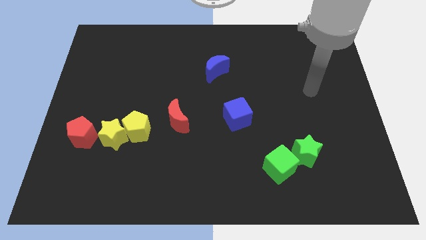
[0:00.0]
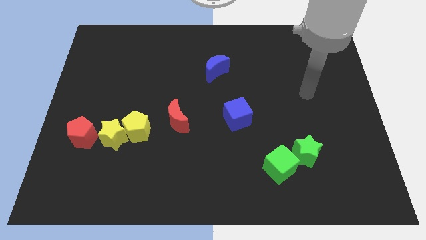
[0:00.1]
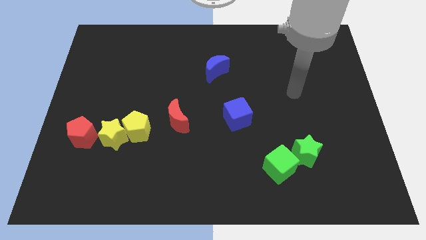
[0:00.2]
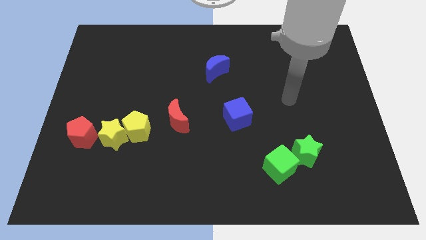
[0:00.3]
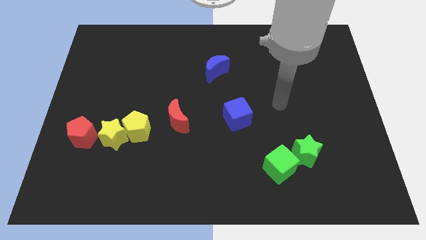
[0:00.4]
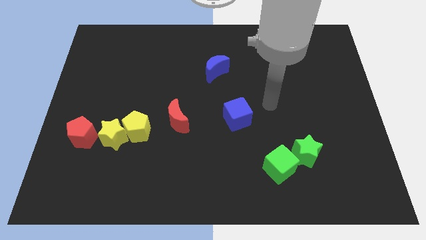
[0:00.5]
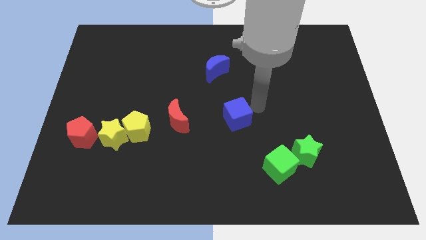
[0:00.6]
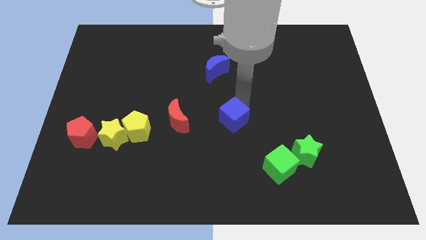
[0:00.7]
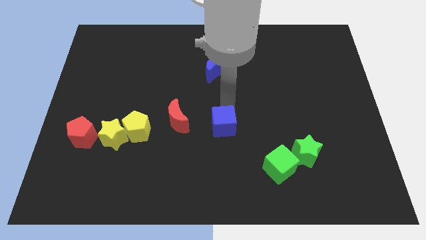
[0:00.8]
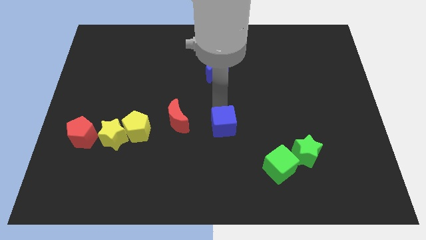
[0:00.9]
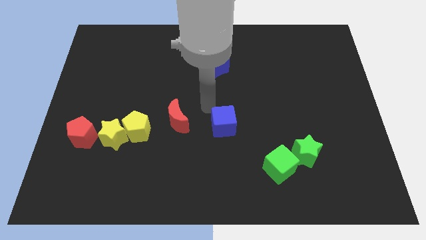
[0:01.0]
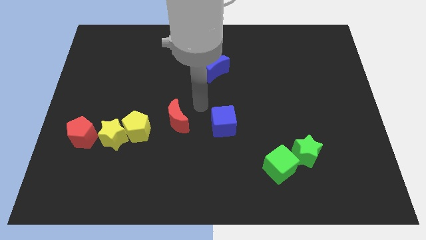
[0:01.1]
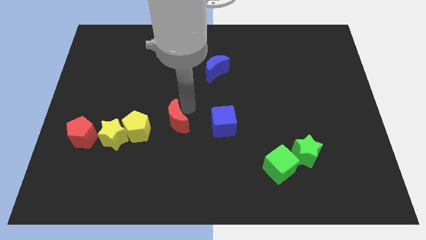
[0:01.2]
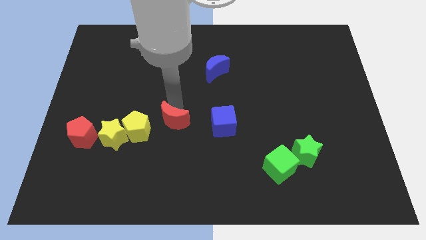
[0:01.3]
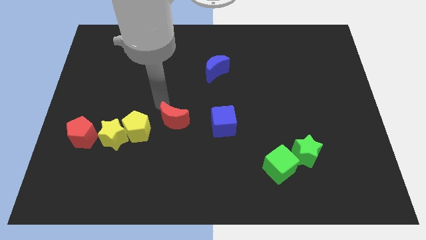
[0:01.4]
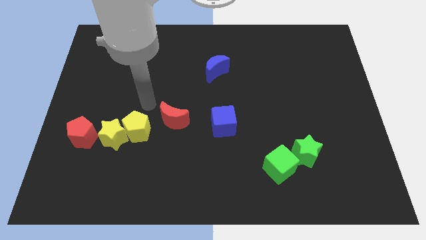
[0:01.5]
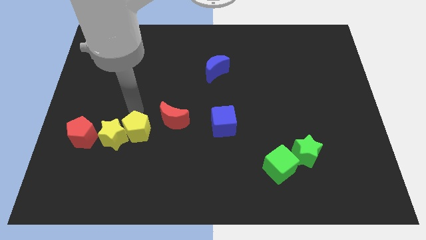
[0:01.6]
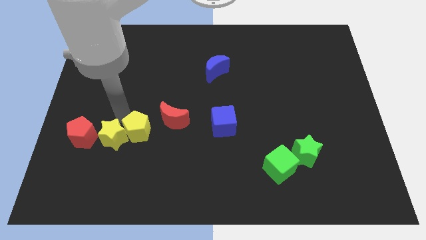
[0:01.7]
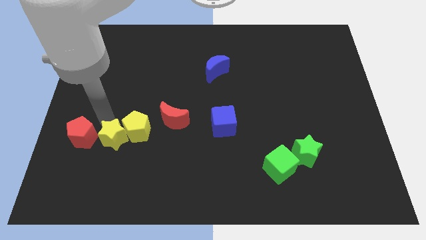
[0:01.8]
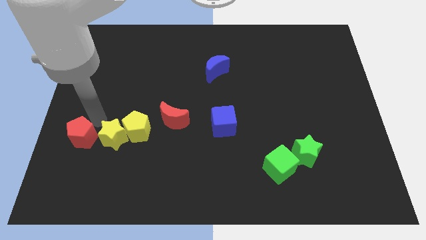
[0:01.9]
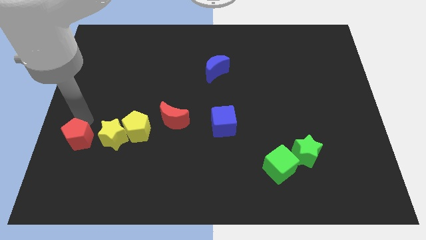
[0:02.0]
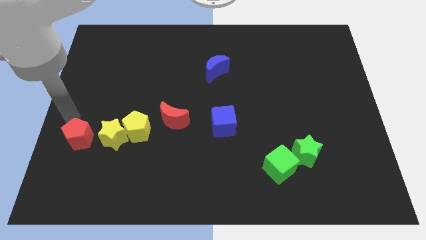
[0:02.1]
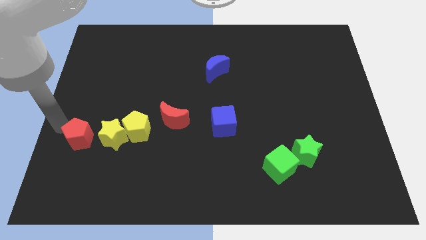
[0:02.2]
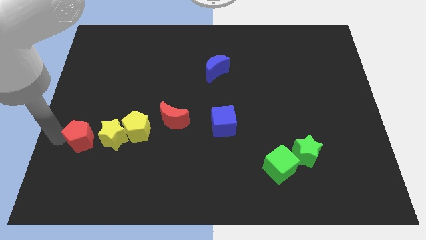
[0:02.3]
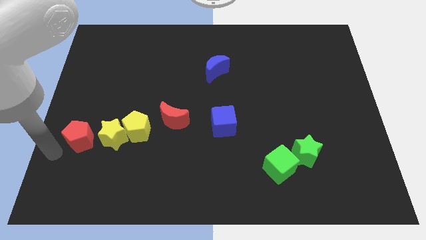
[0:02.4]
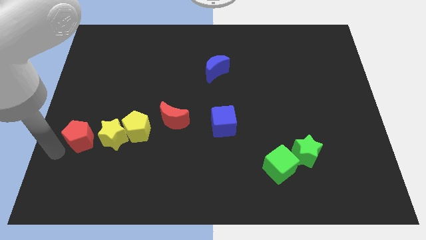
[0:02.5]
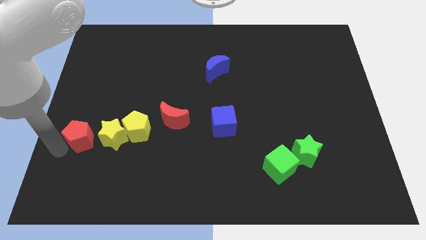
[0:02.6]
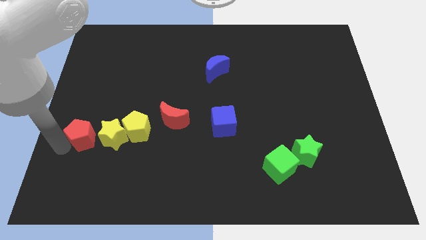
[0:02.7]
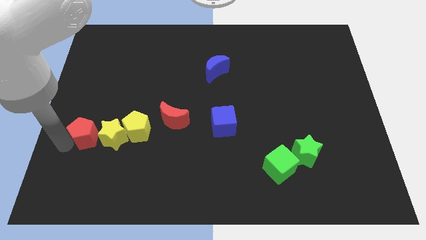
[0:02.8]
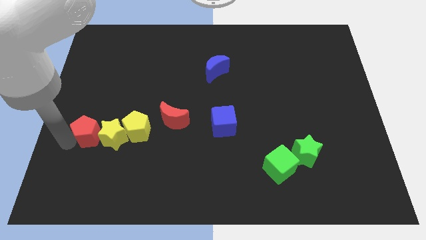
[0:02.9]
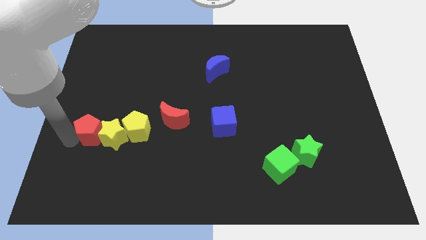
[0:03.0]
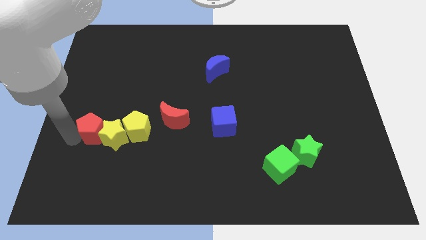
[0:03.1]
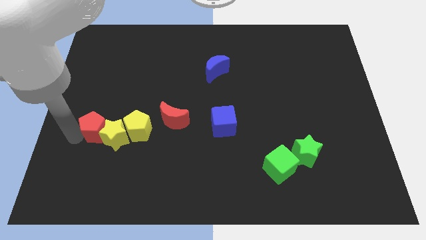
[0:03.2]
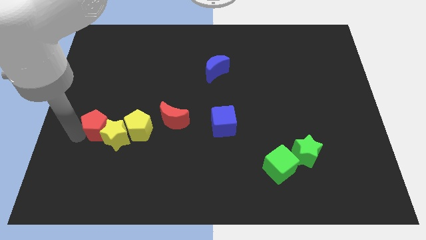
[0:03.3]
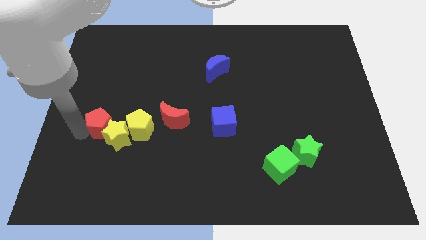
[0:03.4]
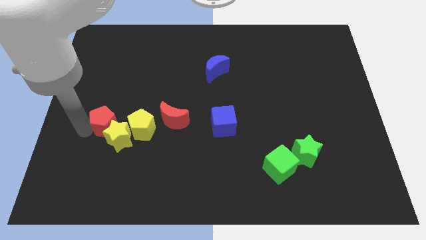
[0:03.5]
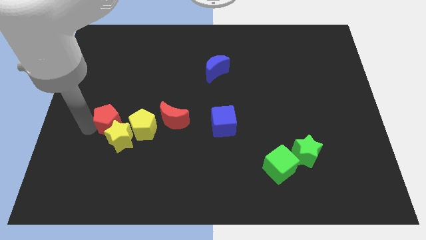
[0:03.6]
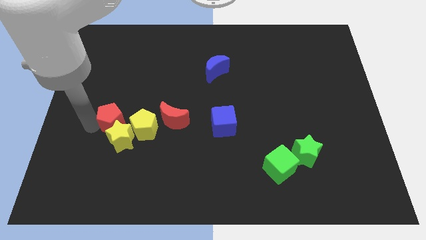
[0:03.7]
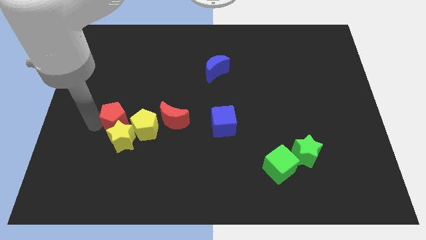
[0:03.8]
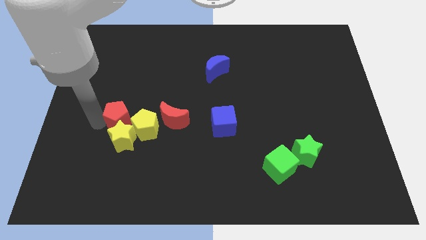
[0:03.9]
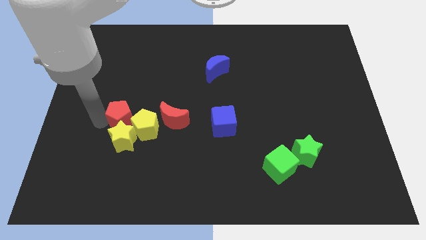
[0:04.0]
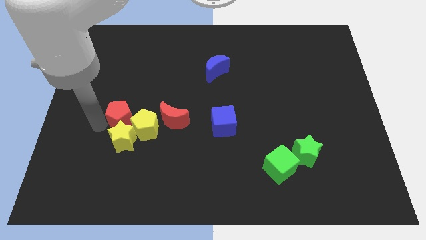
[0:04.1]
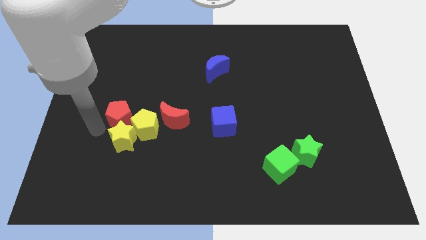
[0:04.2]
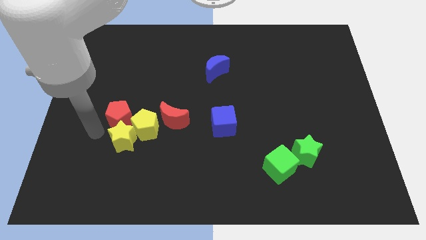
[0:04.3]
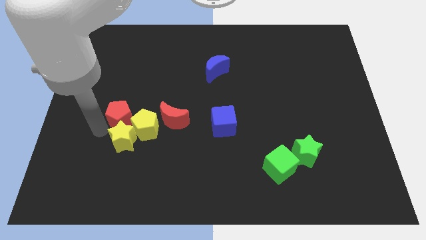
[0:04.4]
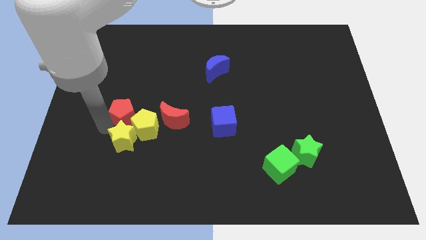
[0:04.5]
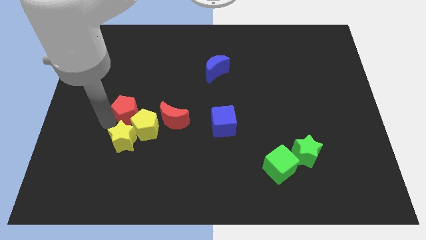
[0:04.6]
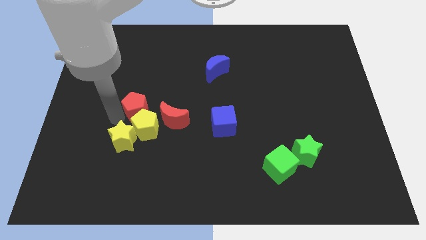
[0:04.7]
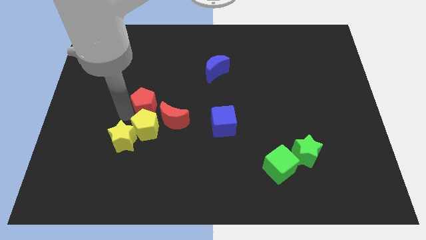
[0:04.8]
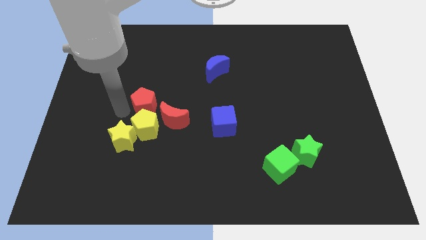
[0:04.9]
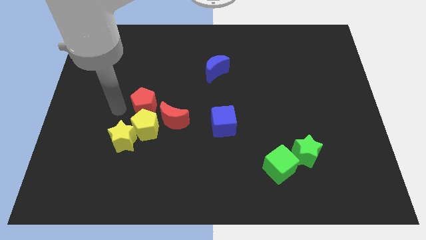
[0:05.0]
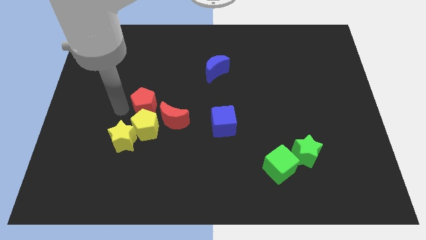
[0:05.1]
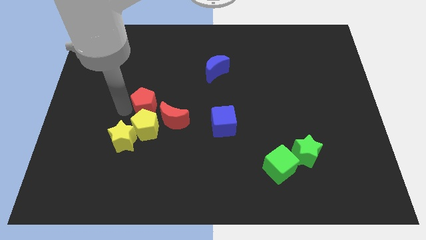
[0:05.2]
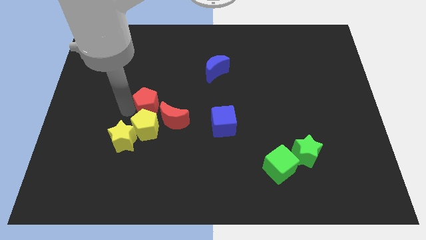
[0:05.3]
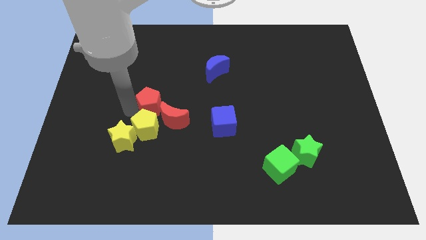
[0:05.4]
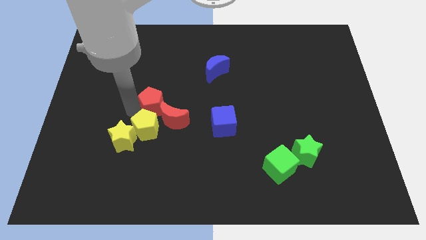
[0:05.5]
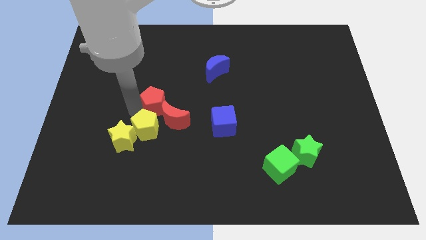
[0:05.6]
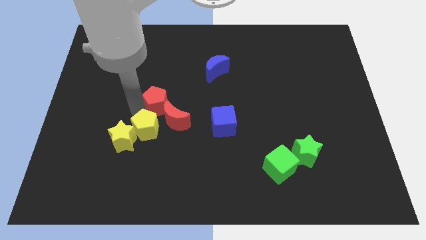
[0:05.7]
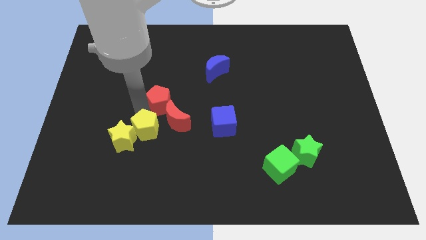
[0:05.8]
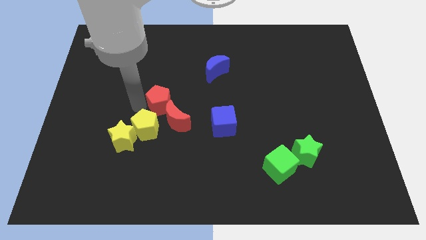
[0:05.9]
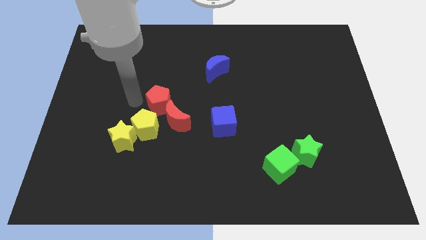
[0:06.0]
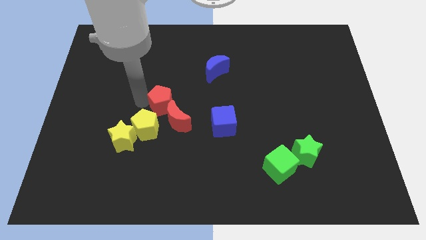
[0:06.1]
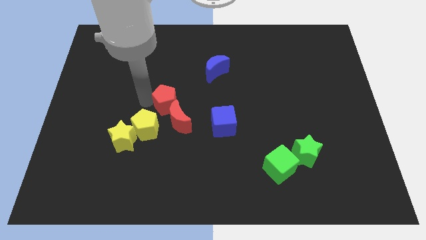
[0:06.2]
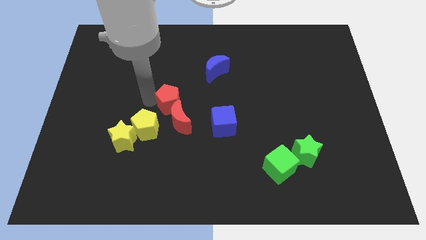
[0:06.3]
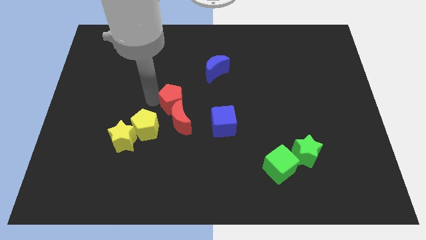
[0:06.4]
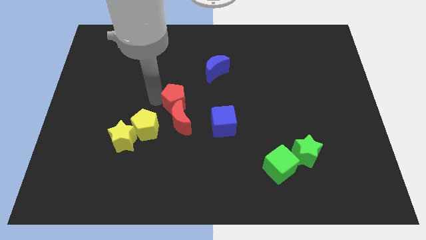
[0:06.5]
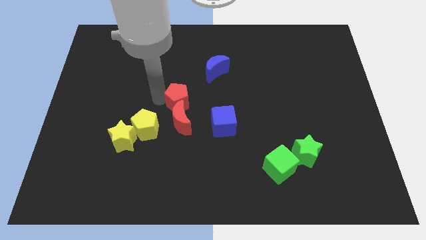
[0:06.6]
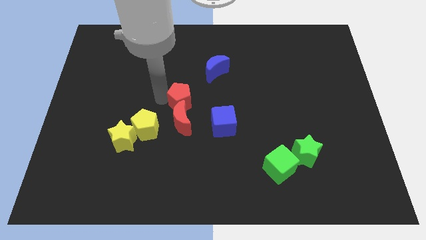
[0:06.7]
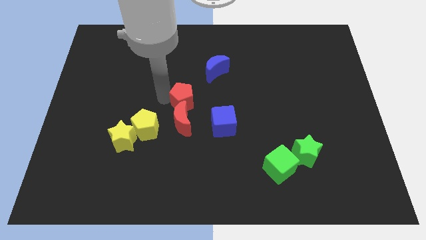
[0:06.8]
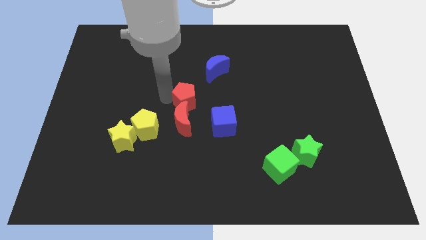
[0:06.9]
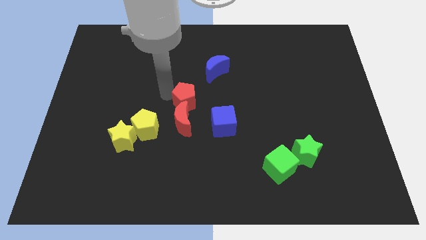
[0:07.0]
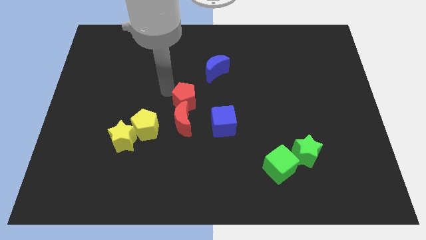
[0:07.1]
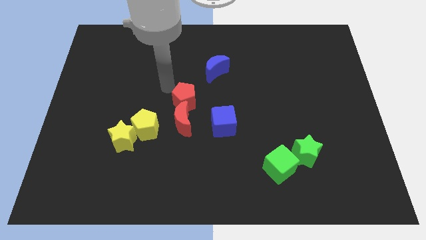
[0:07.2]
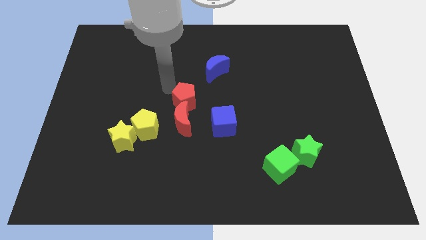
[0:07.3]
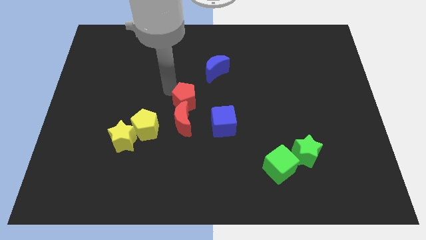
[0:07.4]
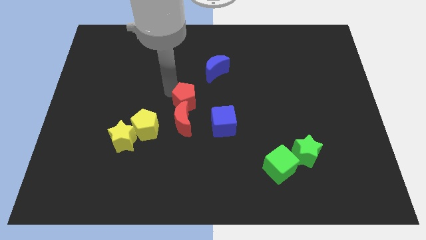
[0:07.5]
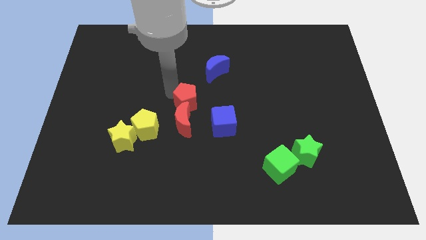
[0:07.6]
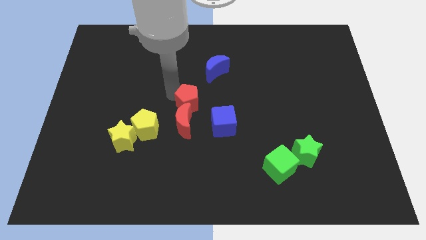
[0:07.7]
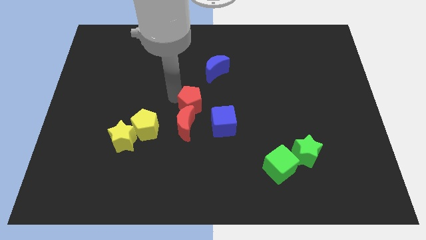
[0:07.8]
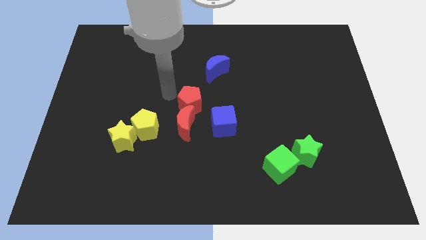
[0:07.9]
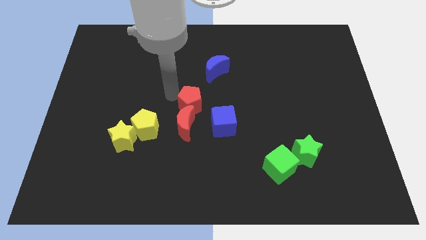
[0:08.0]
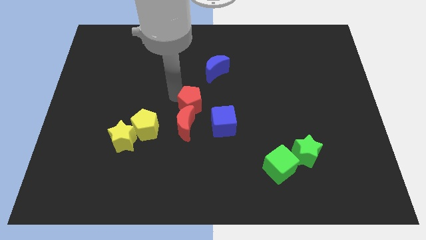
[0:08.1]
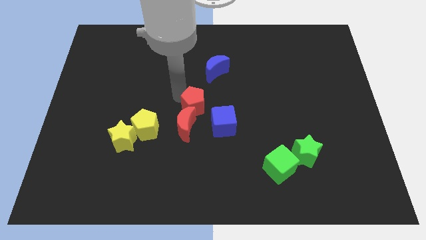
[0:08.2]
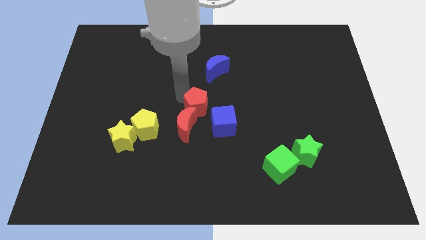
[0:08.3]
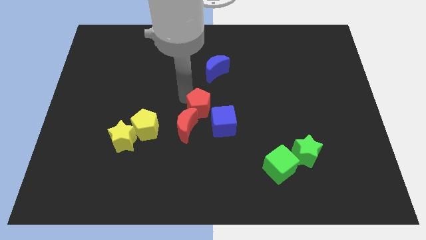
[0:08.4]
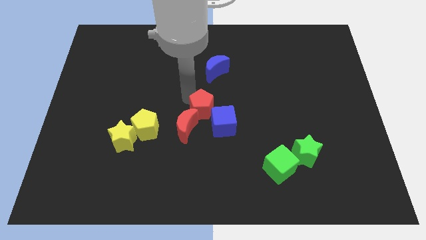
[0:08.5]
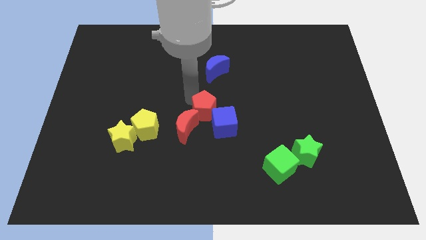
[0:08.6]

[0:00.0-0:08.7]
put the red pentagon next to the blue cube
